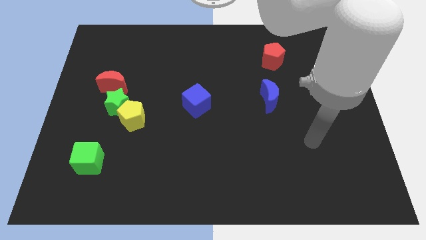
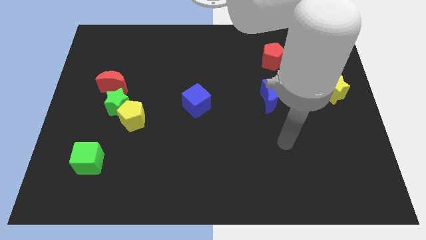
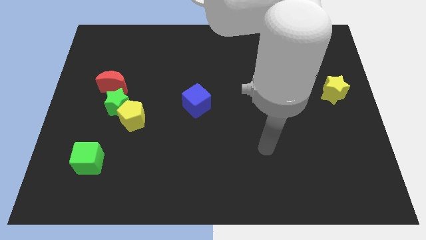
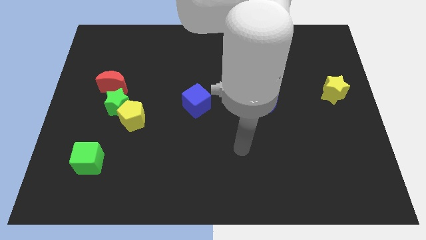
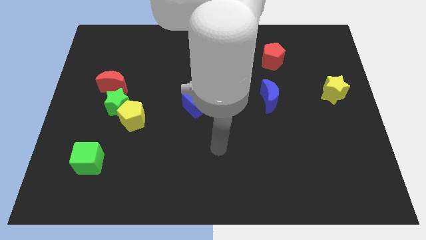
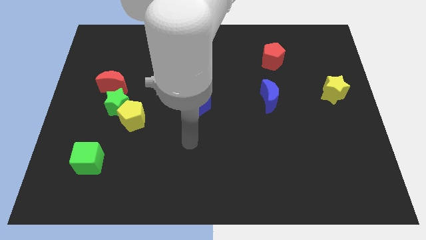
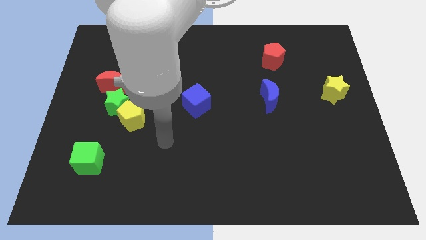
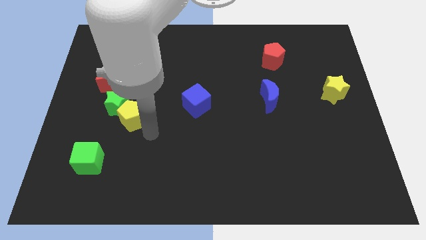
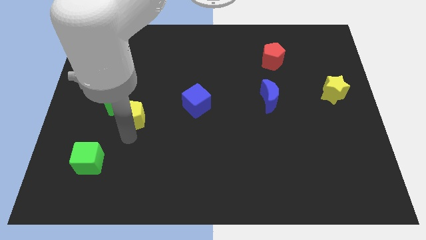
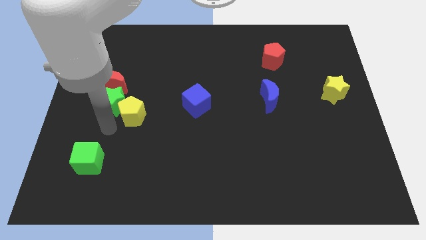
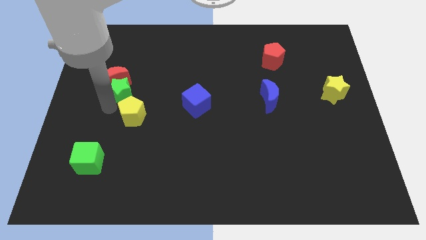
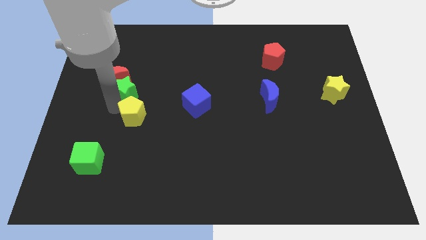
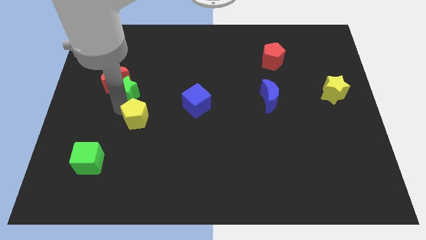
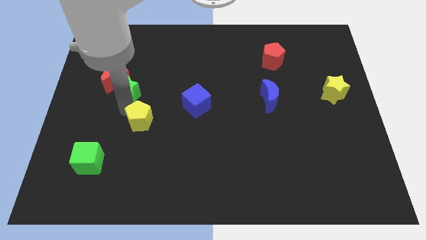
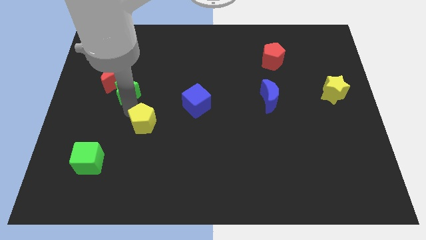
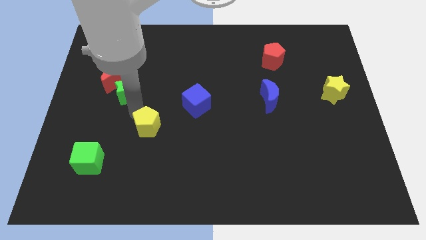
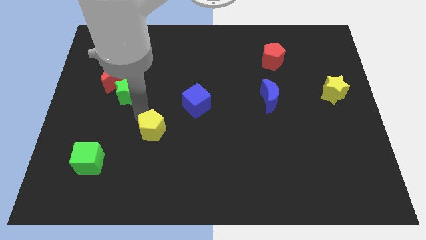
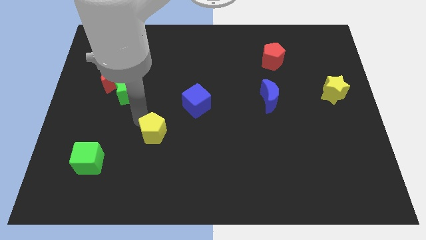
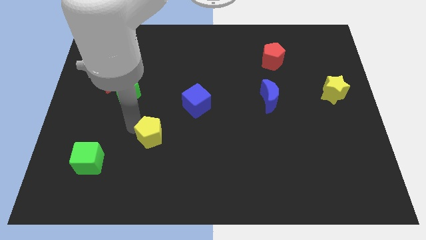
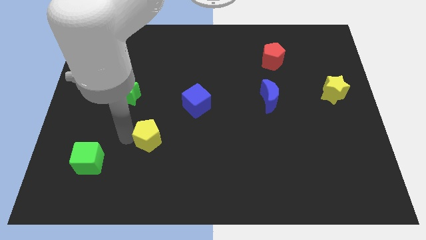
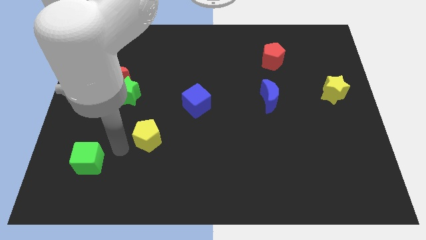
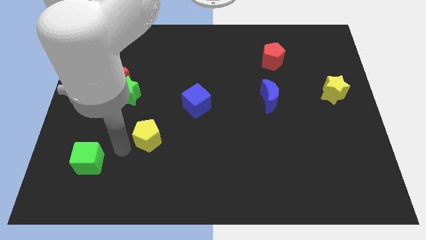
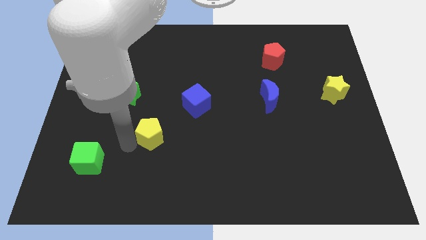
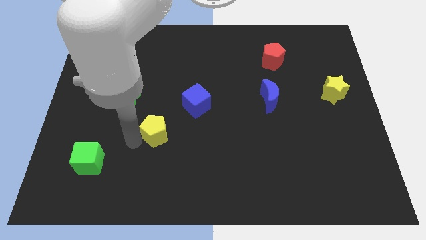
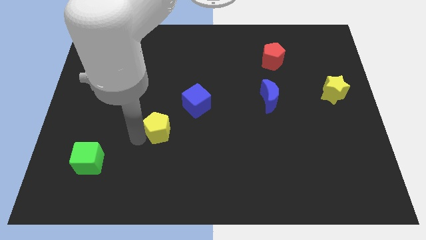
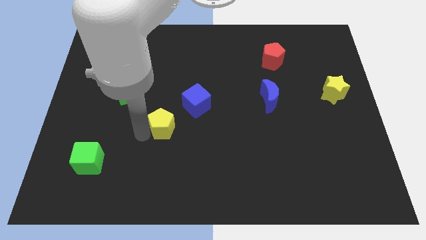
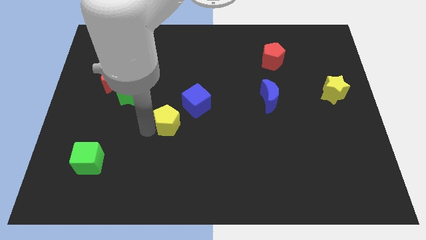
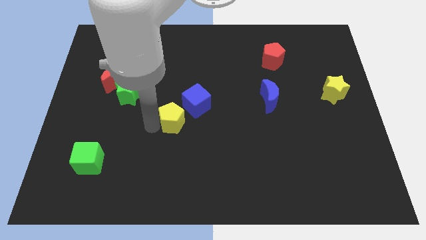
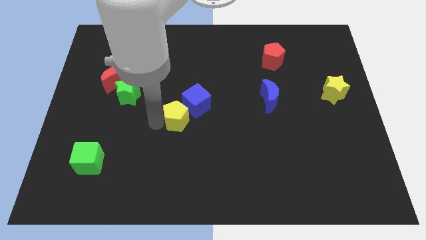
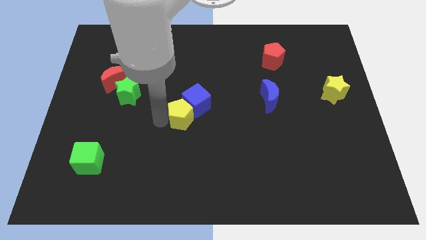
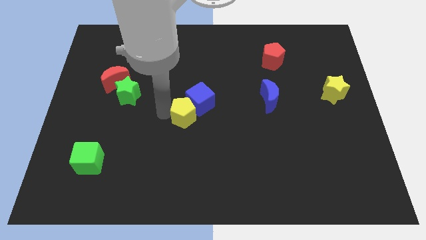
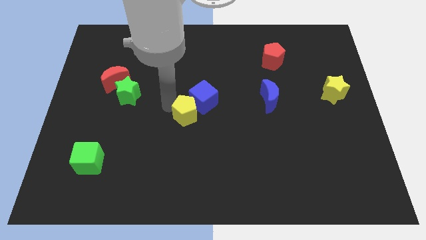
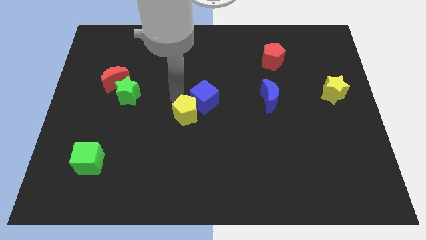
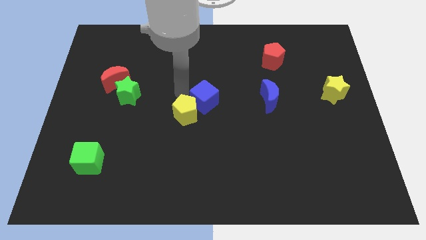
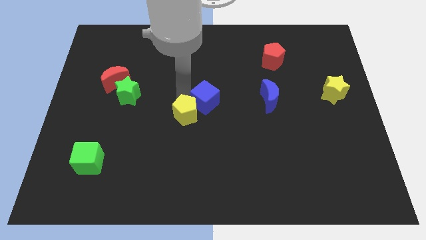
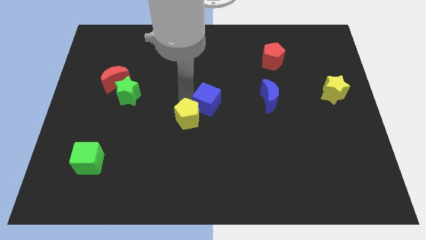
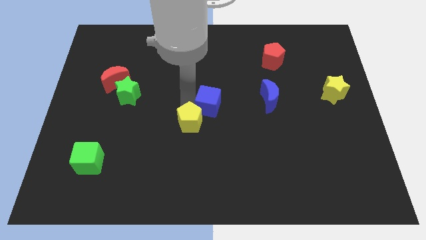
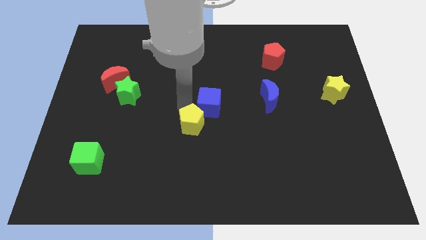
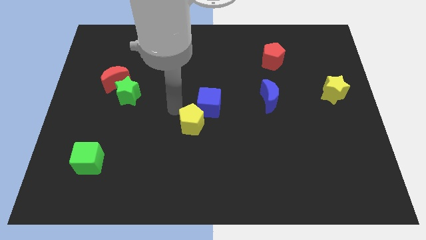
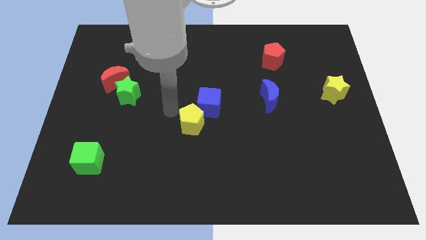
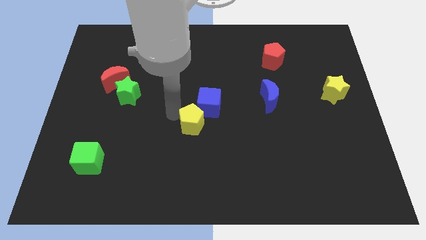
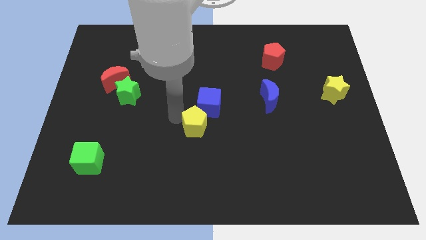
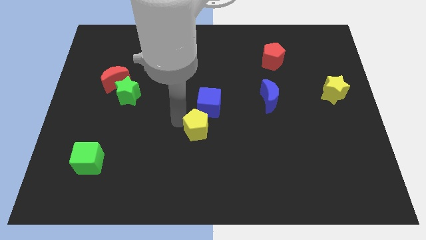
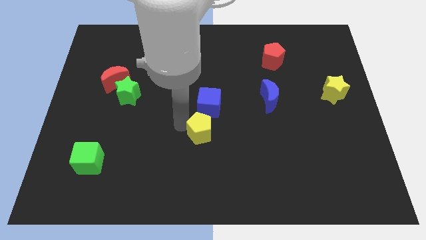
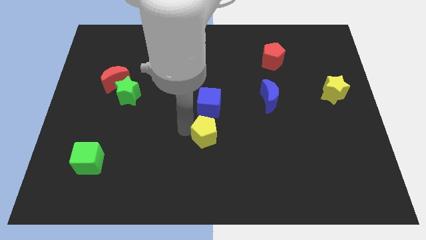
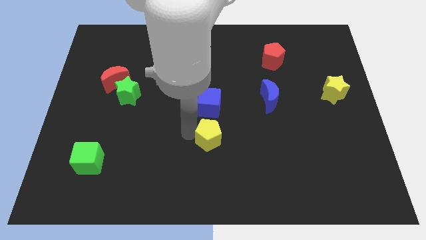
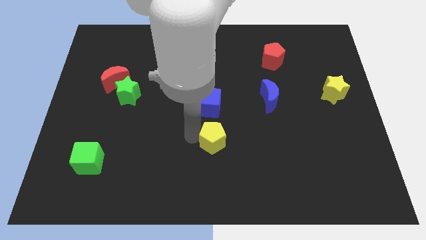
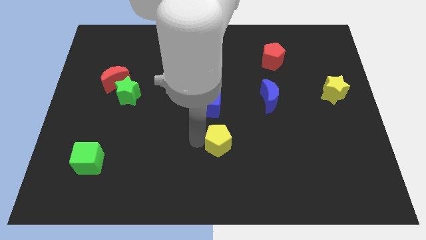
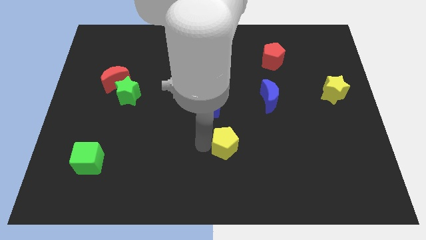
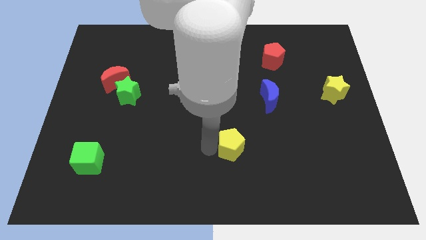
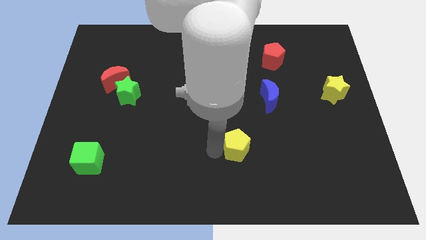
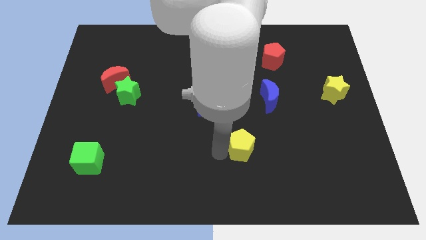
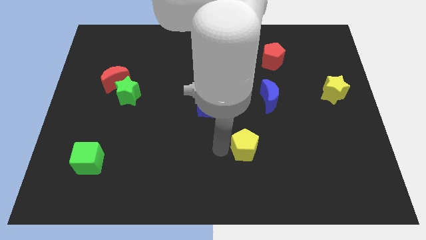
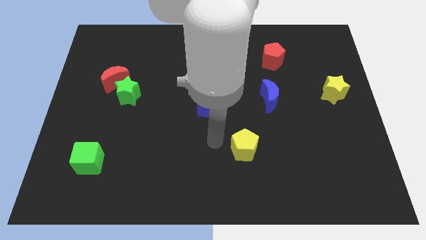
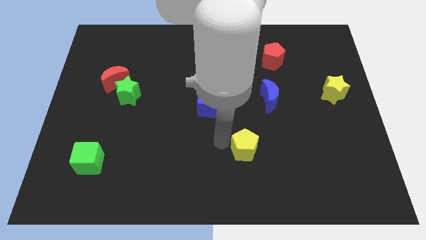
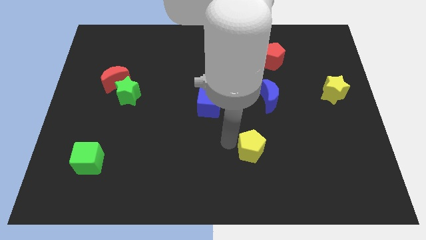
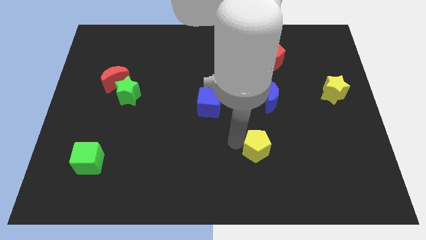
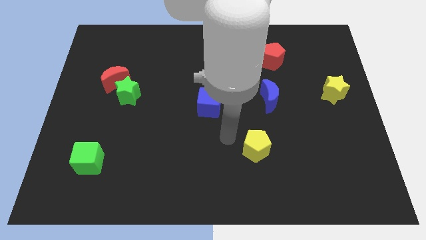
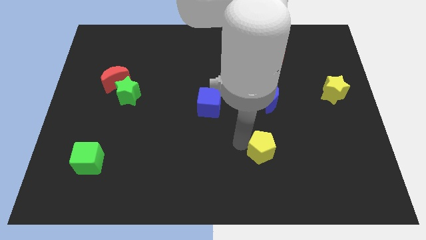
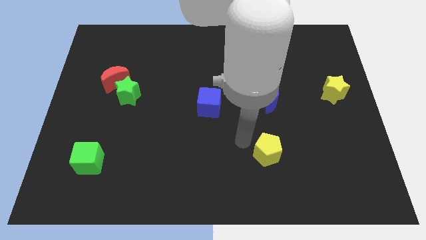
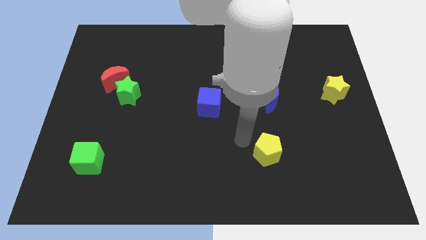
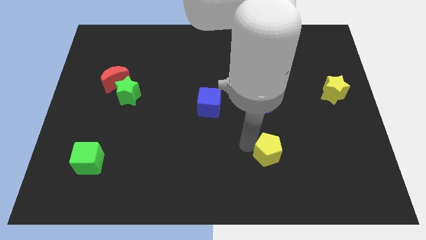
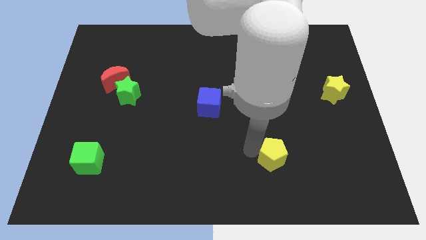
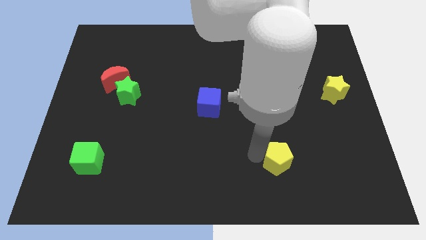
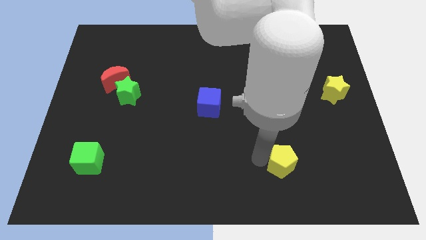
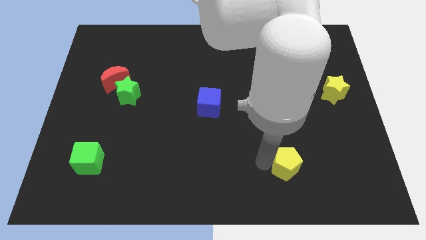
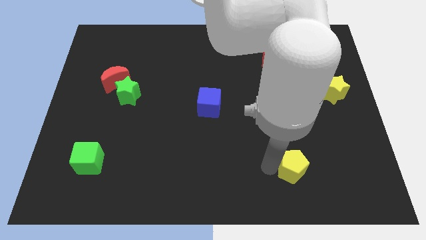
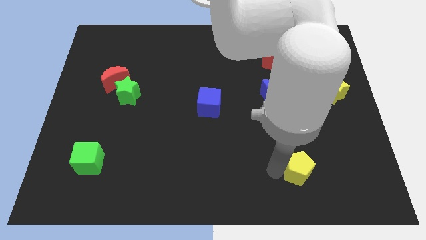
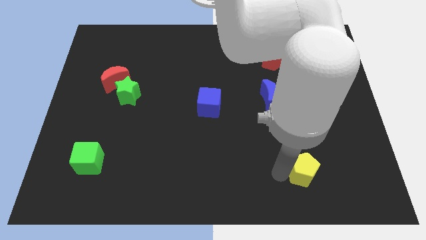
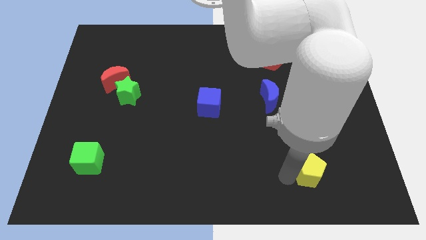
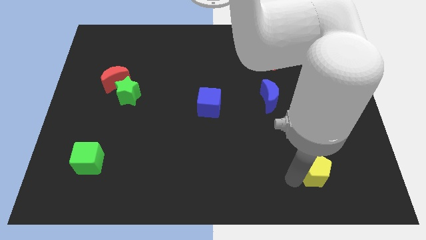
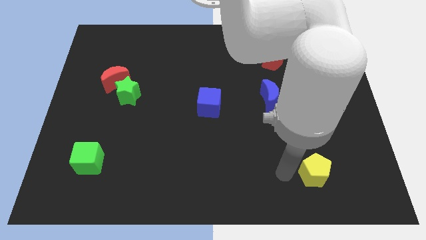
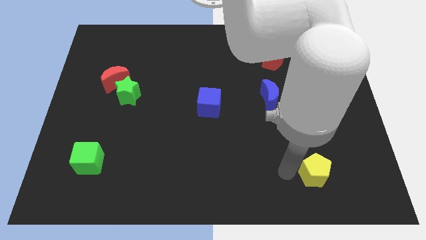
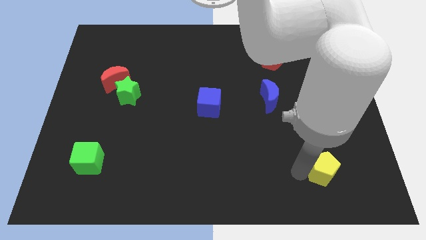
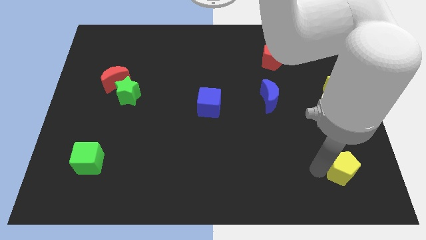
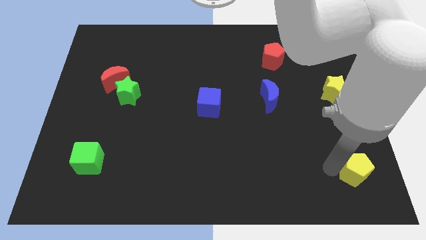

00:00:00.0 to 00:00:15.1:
put the yellow pentagon to the bottom right of the board
